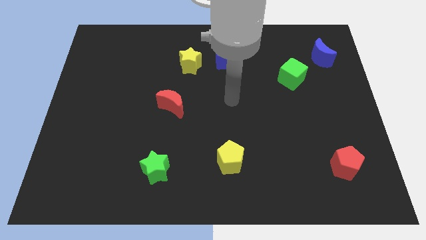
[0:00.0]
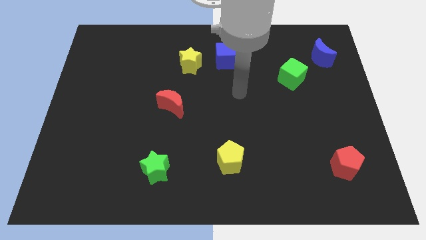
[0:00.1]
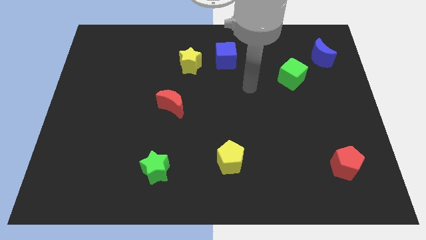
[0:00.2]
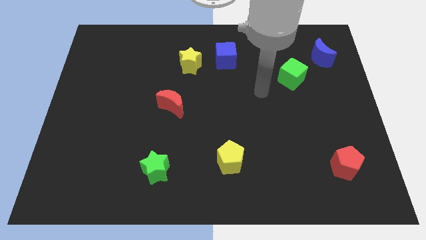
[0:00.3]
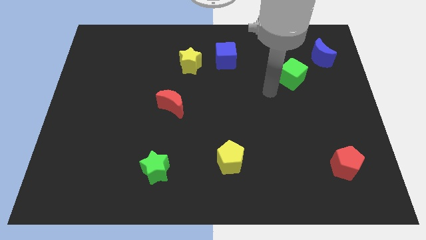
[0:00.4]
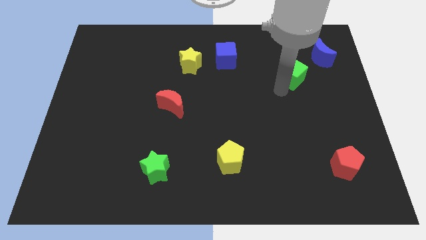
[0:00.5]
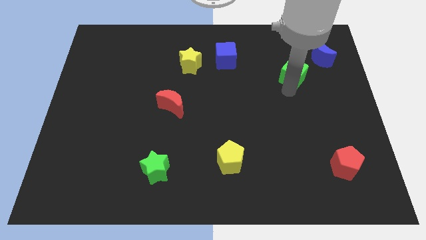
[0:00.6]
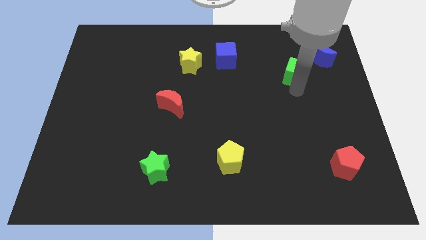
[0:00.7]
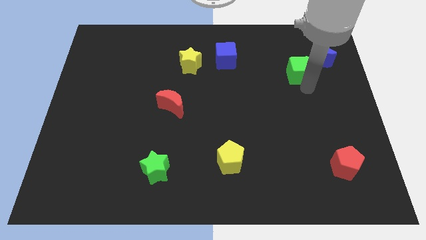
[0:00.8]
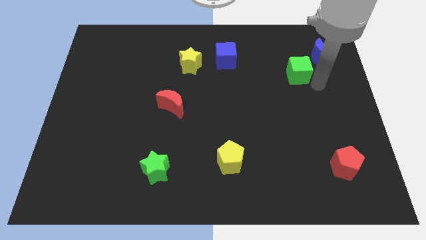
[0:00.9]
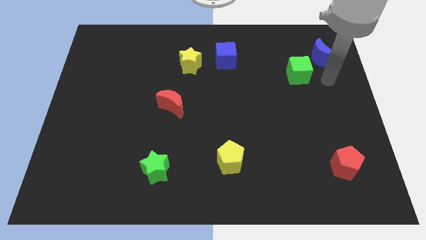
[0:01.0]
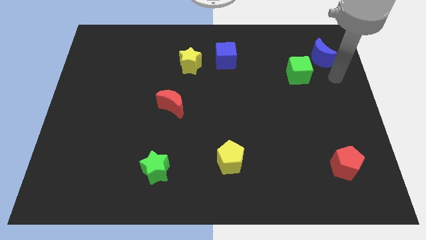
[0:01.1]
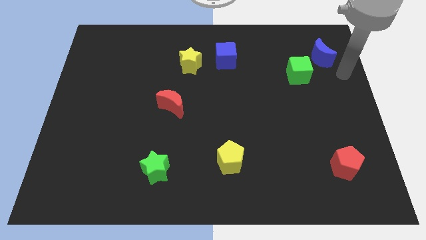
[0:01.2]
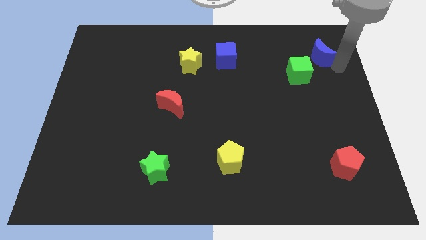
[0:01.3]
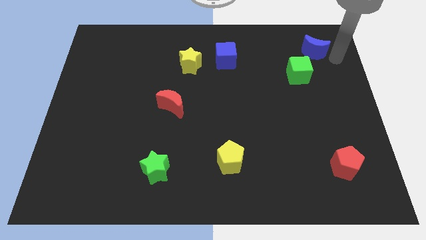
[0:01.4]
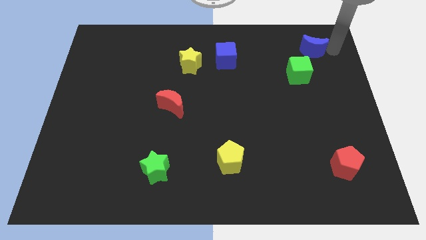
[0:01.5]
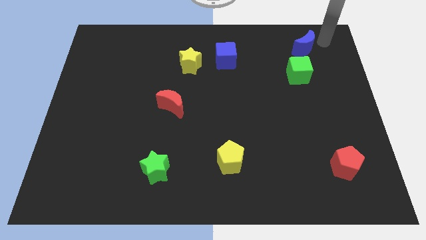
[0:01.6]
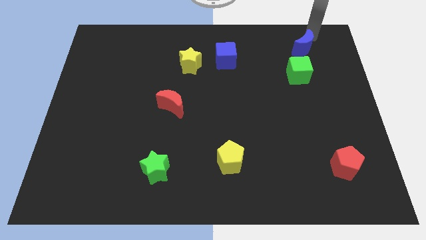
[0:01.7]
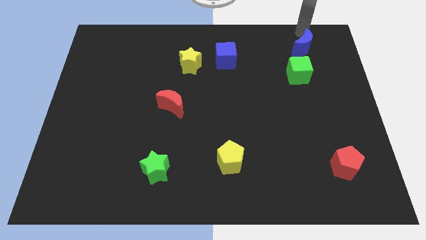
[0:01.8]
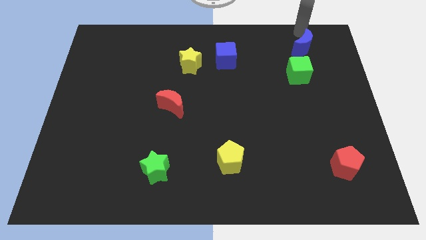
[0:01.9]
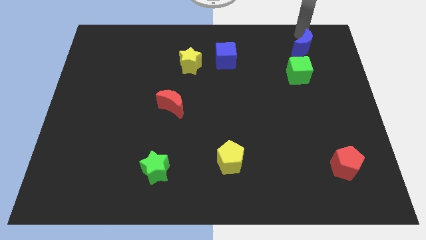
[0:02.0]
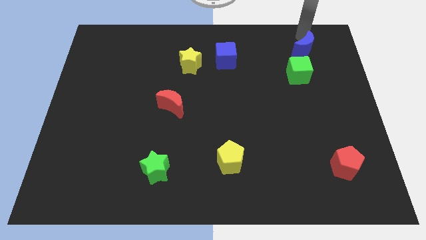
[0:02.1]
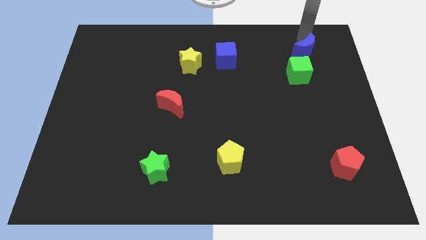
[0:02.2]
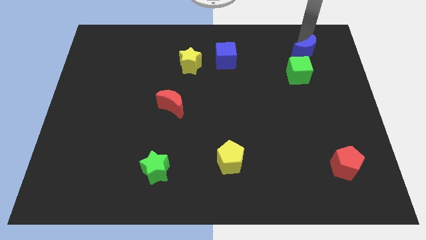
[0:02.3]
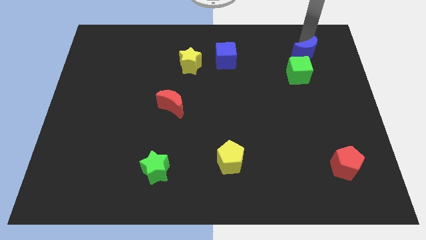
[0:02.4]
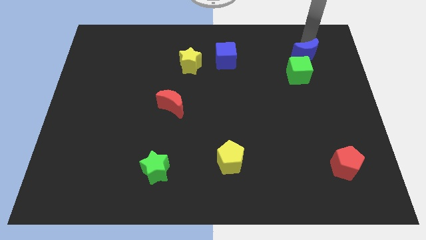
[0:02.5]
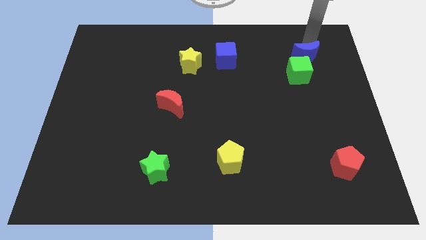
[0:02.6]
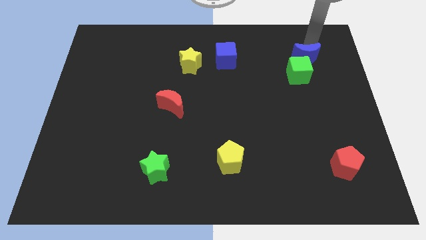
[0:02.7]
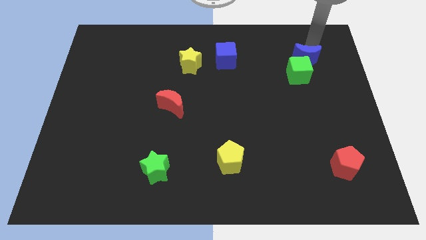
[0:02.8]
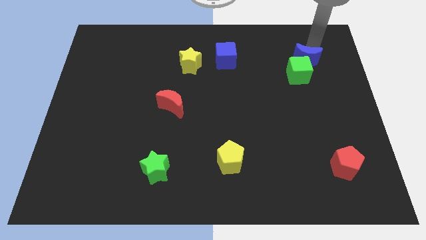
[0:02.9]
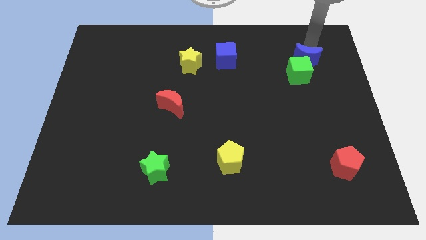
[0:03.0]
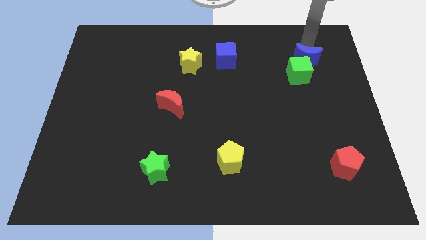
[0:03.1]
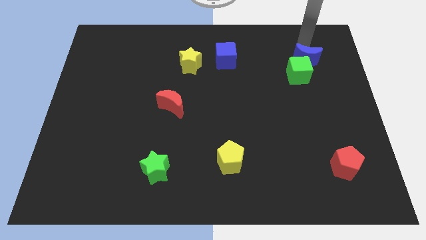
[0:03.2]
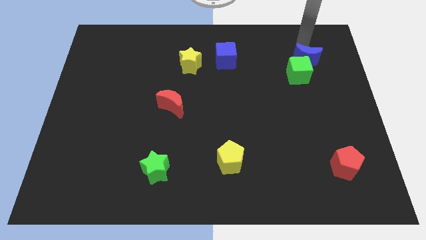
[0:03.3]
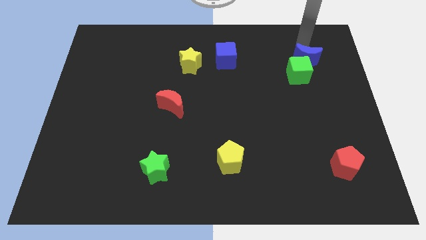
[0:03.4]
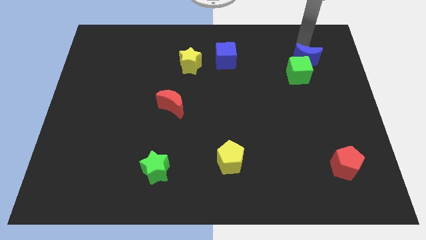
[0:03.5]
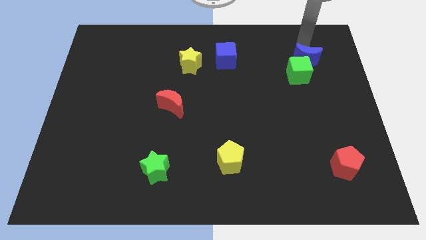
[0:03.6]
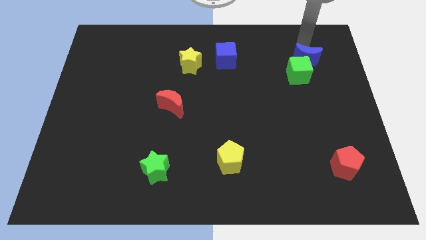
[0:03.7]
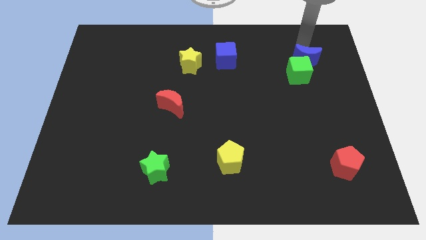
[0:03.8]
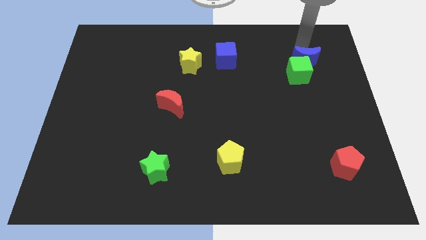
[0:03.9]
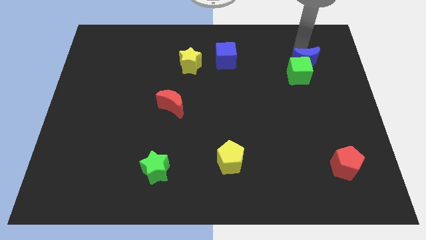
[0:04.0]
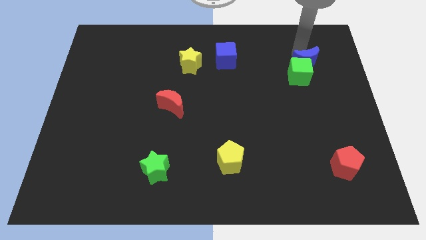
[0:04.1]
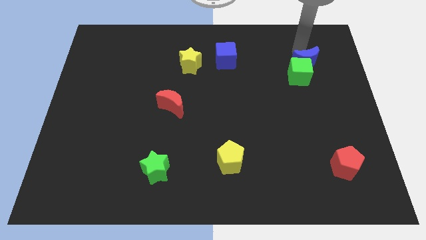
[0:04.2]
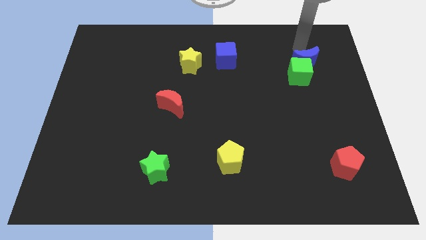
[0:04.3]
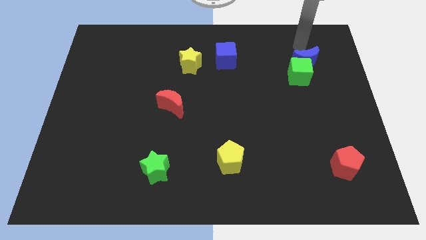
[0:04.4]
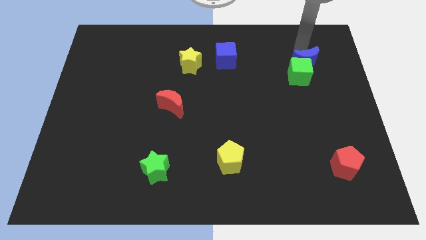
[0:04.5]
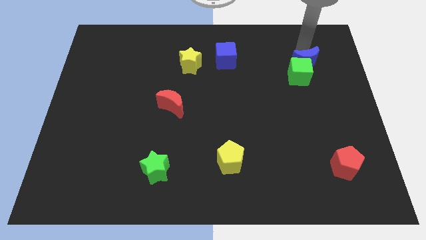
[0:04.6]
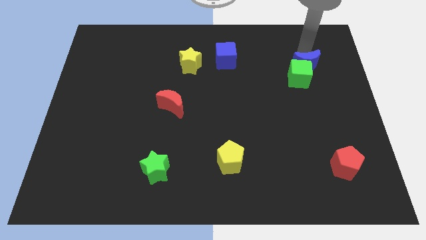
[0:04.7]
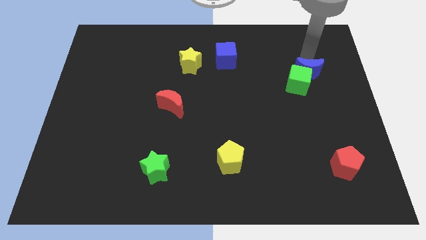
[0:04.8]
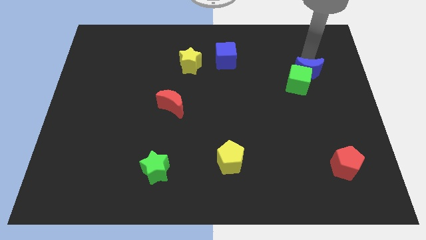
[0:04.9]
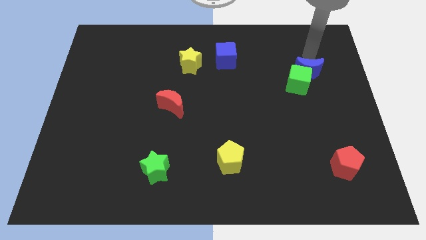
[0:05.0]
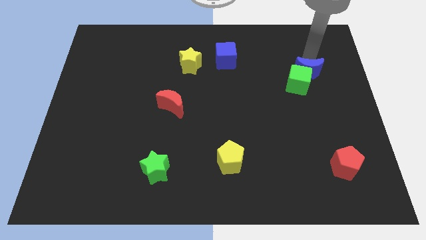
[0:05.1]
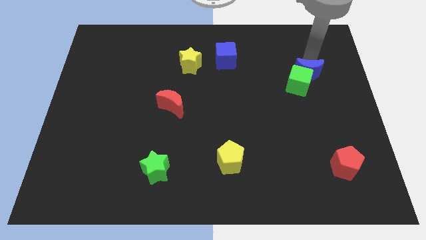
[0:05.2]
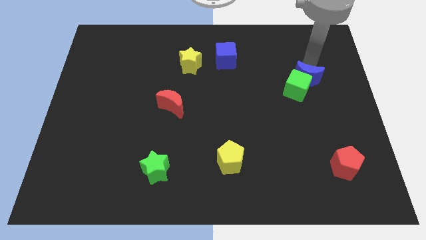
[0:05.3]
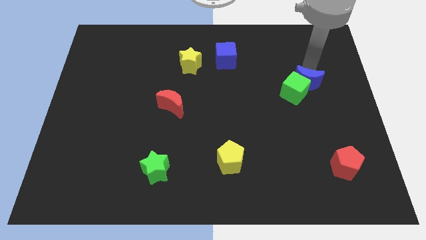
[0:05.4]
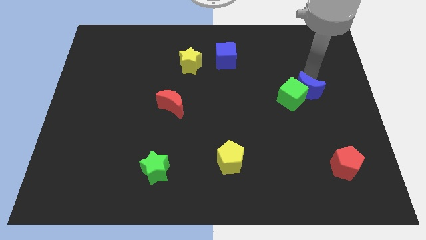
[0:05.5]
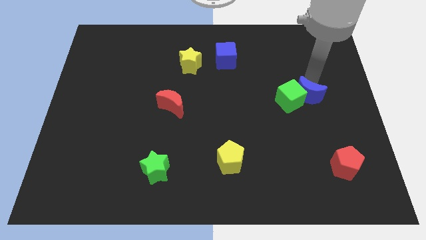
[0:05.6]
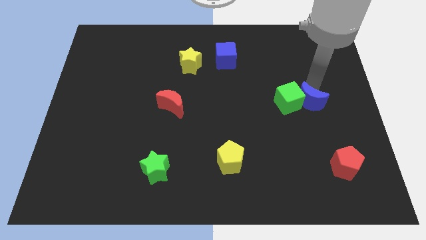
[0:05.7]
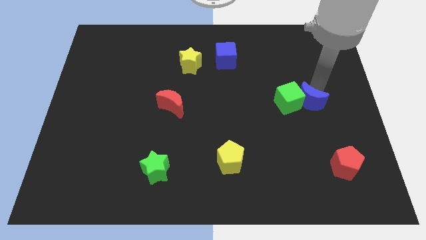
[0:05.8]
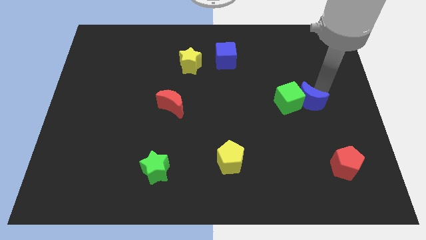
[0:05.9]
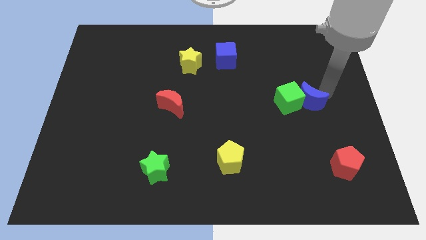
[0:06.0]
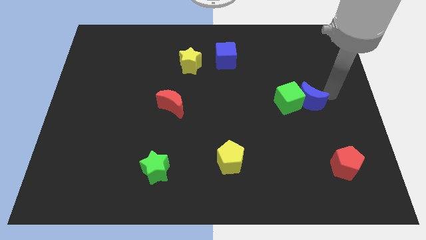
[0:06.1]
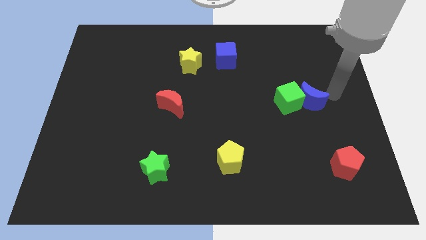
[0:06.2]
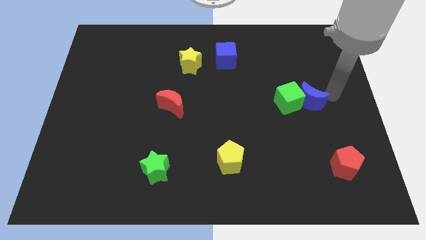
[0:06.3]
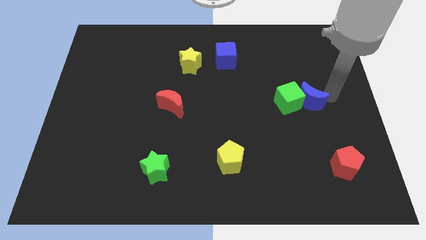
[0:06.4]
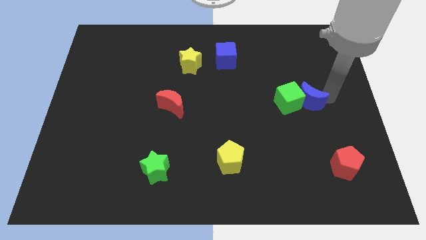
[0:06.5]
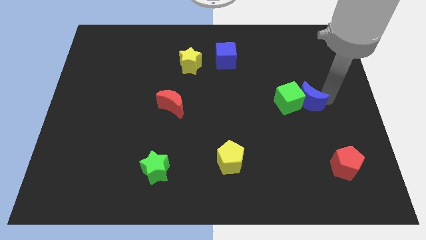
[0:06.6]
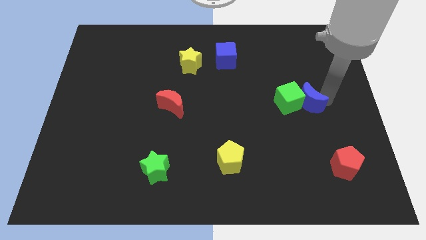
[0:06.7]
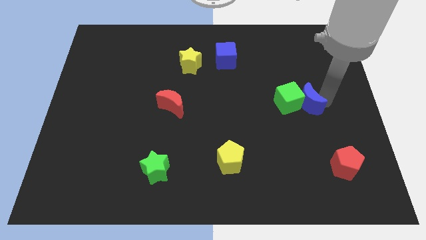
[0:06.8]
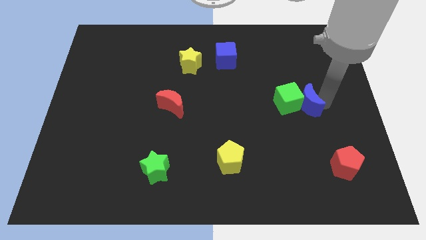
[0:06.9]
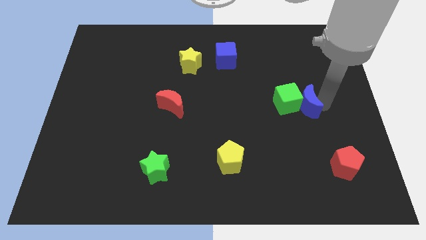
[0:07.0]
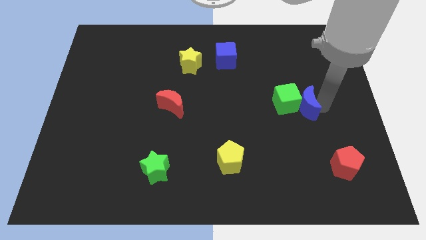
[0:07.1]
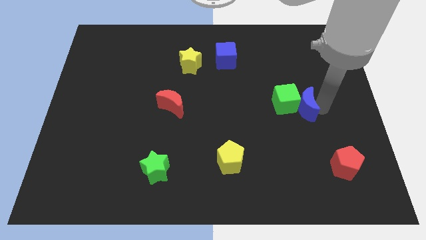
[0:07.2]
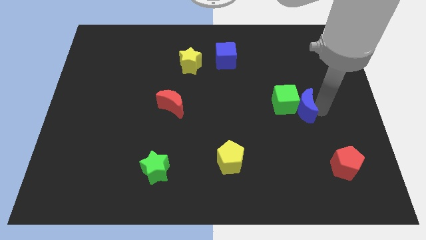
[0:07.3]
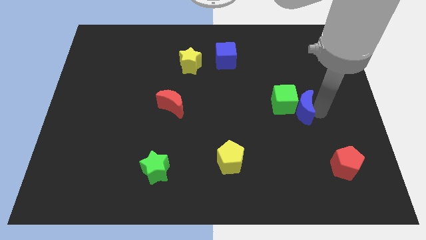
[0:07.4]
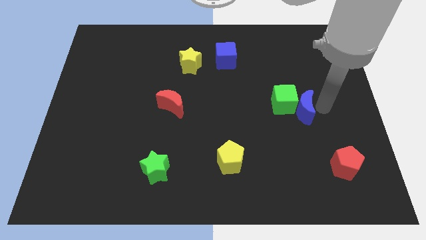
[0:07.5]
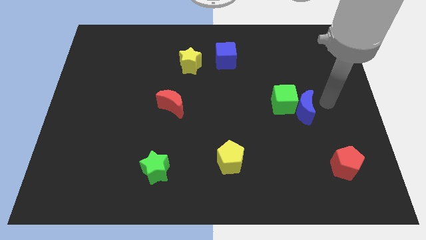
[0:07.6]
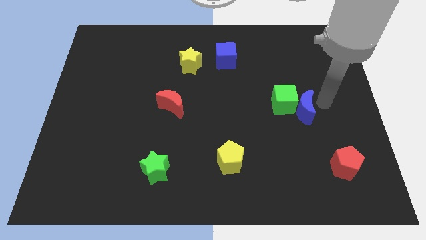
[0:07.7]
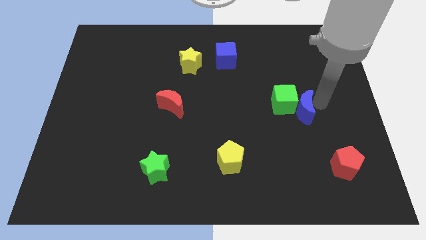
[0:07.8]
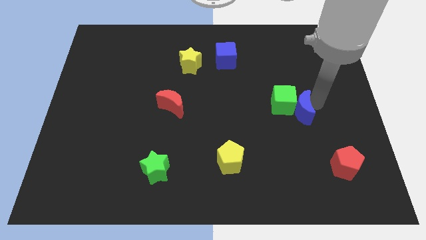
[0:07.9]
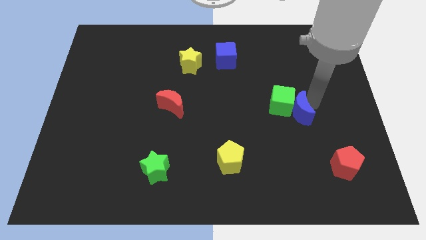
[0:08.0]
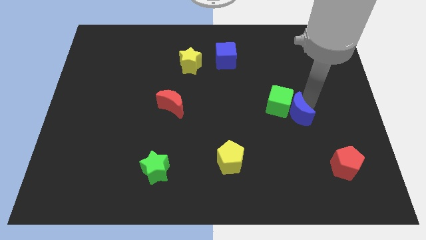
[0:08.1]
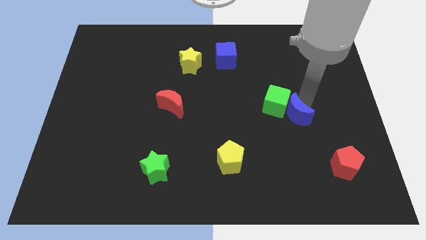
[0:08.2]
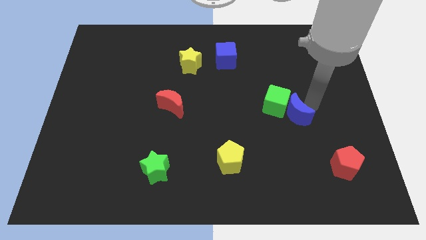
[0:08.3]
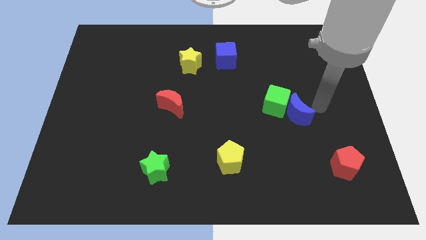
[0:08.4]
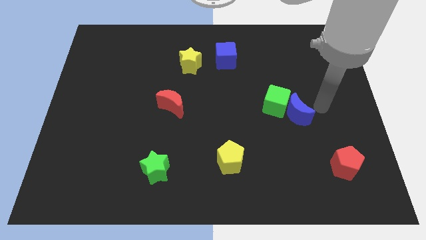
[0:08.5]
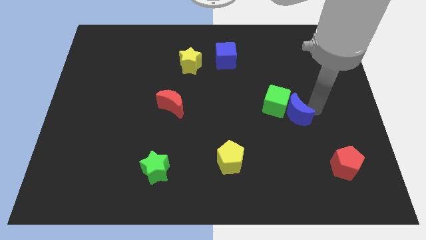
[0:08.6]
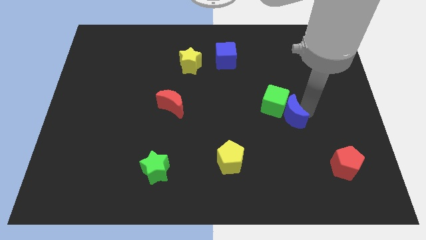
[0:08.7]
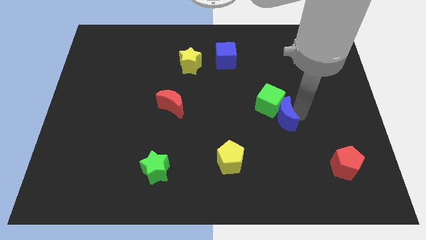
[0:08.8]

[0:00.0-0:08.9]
push the blue moon diagonally downwards and to the left
